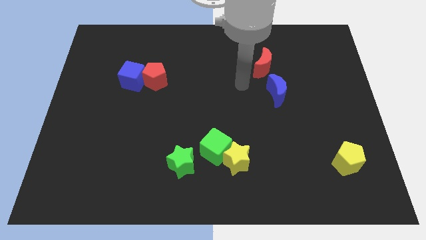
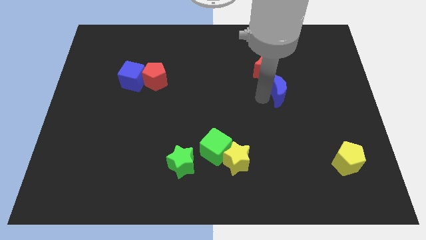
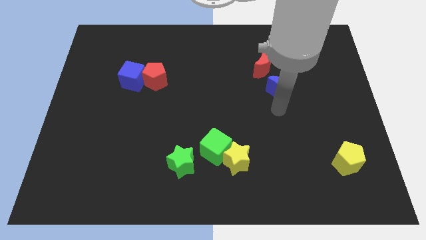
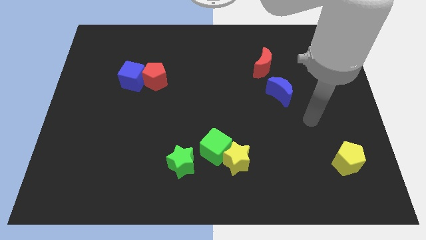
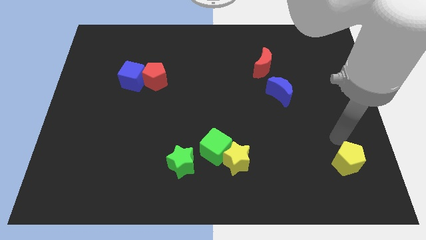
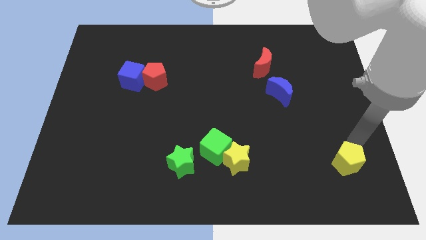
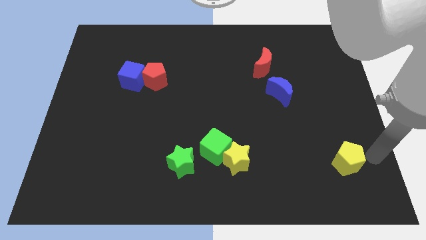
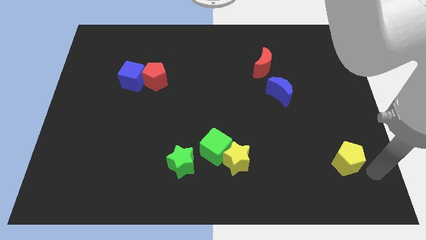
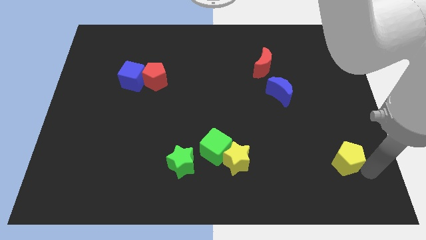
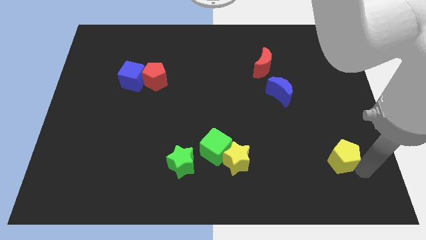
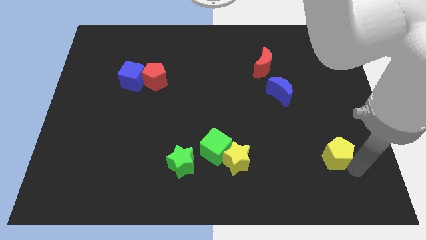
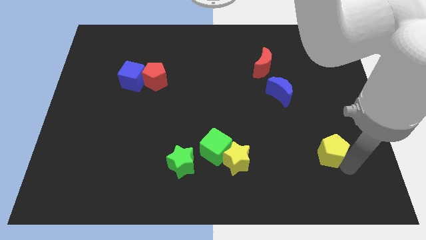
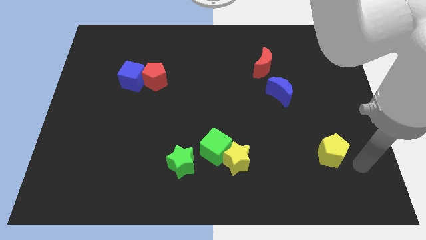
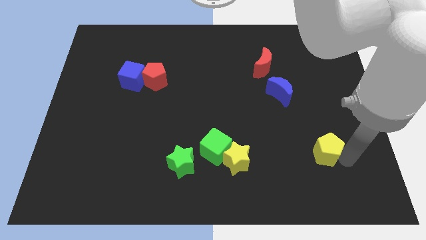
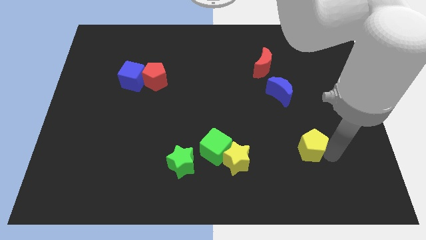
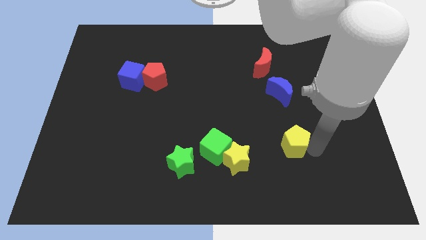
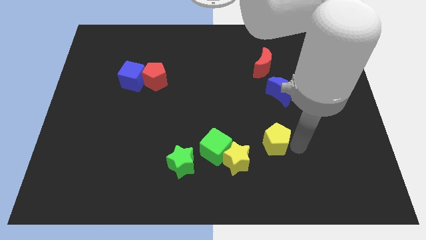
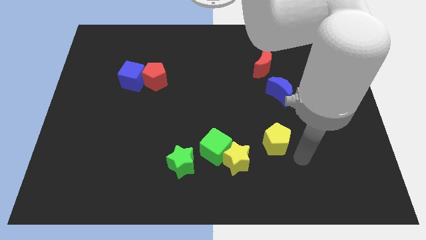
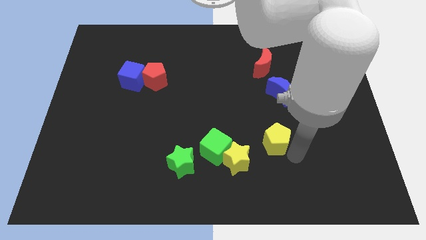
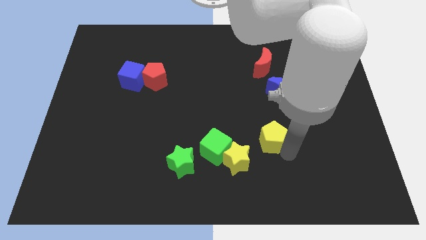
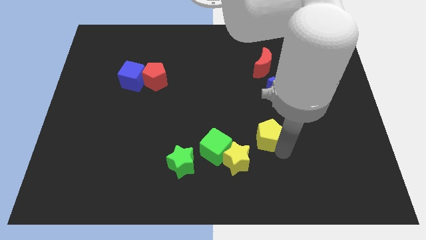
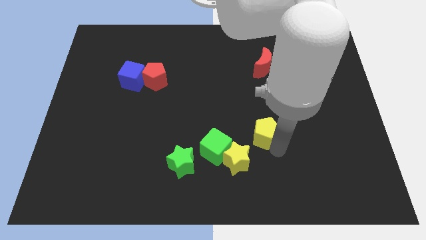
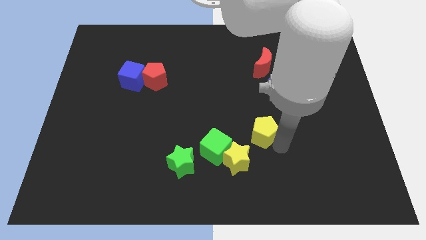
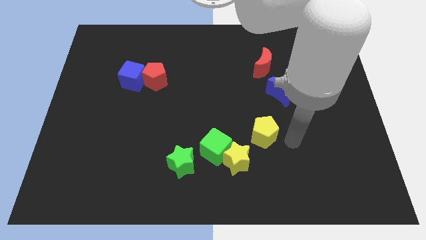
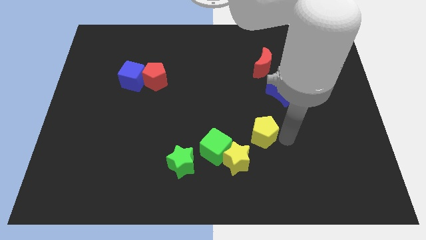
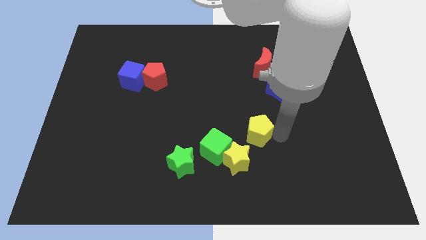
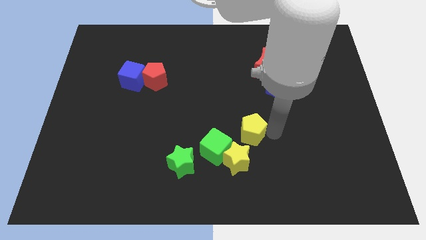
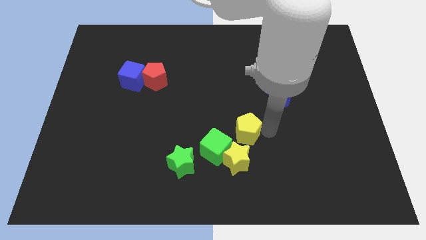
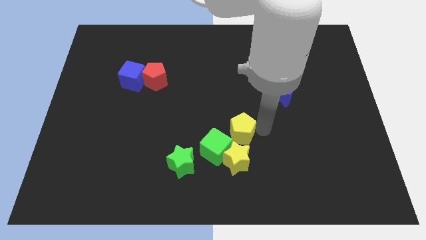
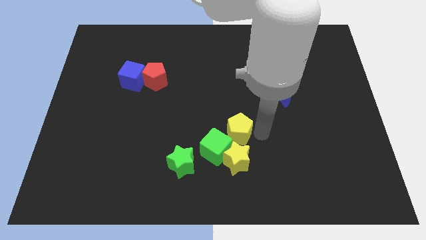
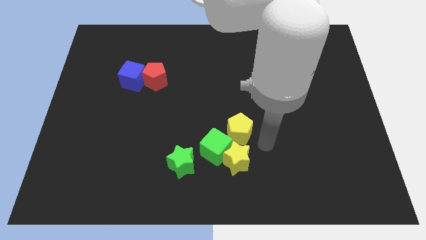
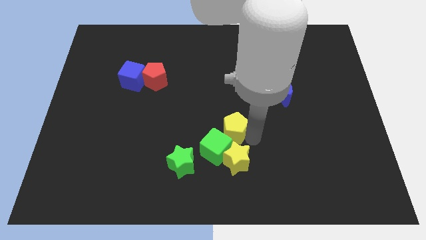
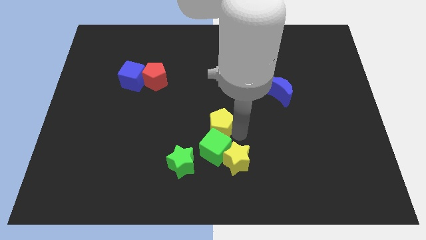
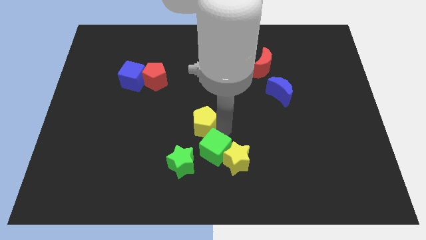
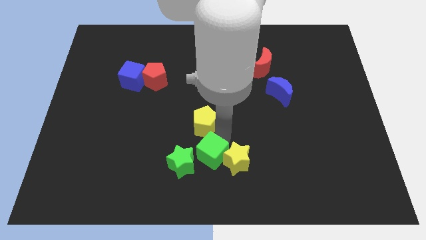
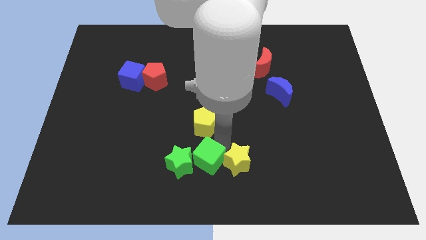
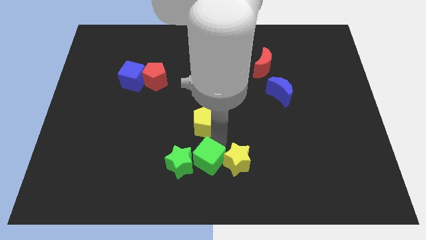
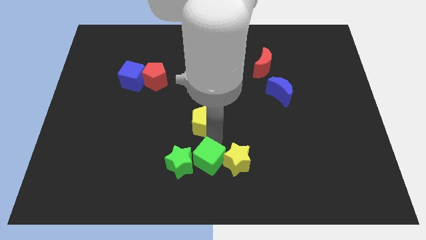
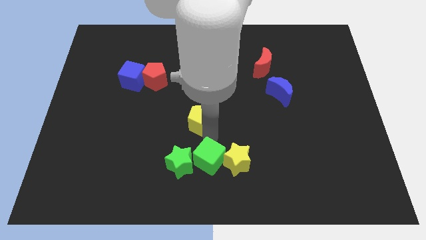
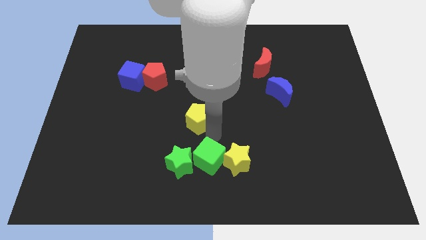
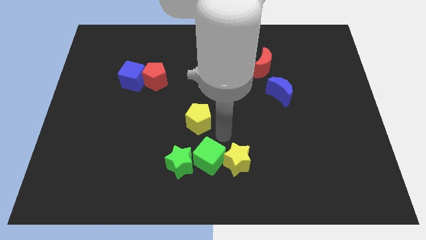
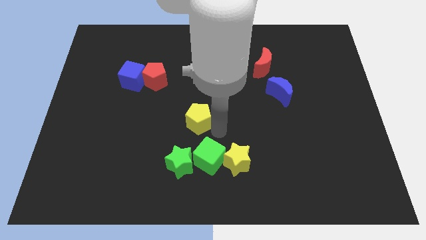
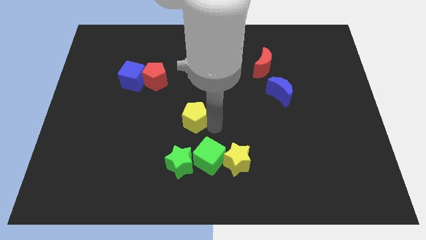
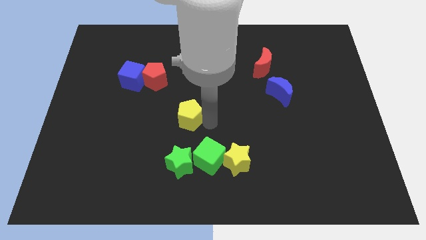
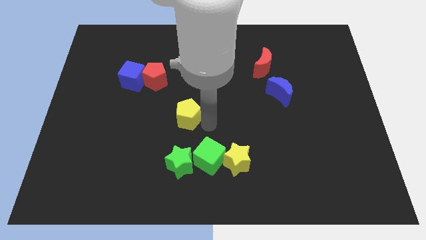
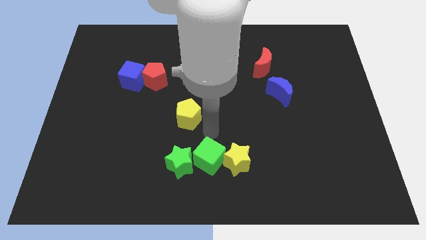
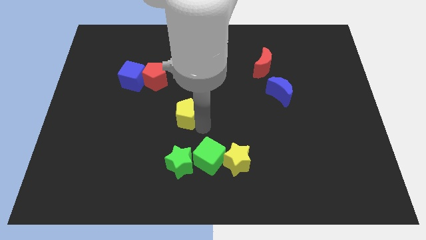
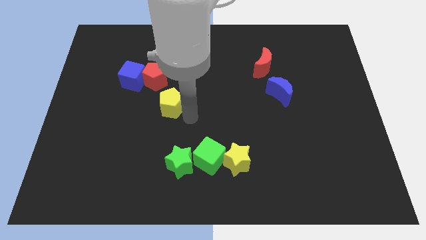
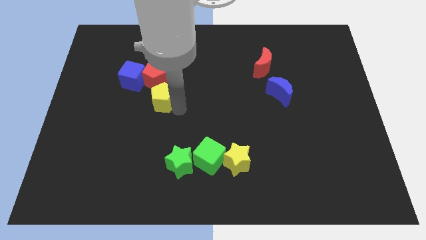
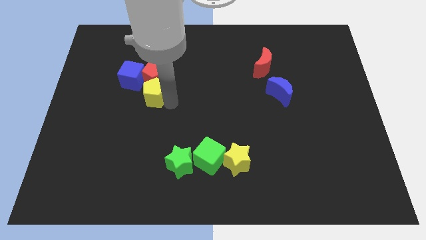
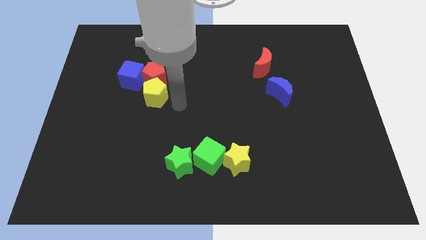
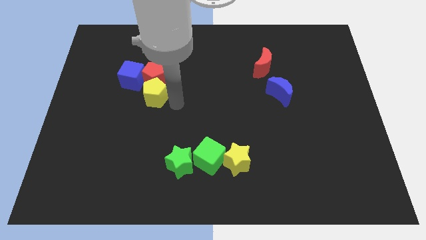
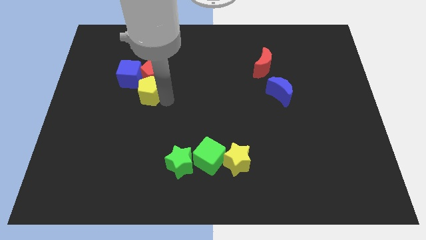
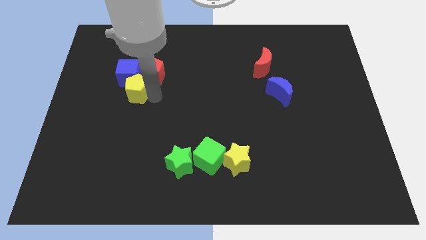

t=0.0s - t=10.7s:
slide the yellow pentagon to the blue cube

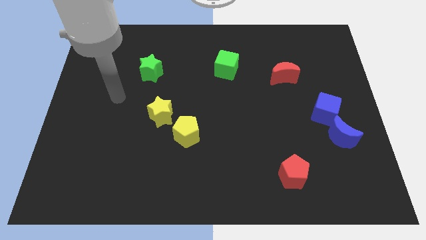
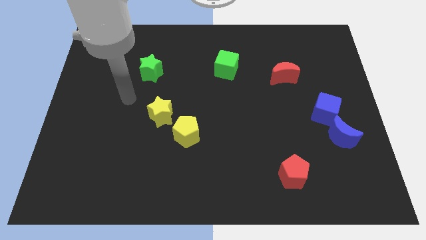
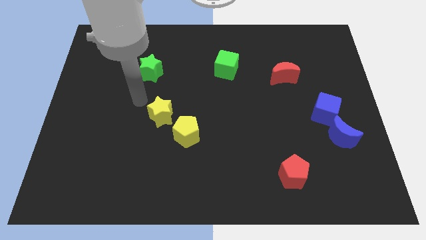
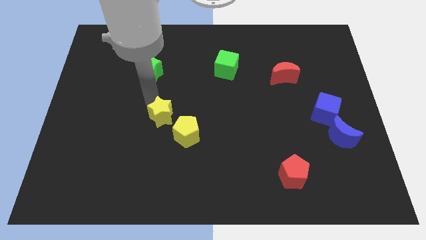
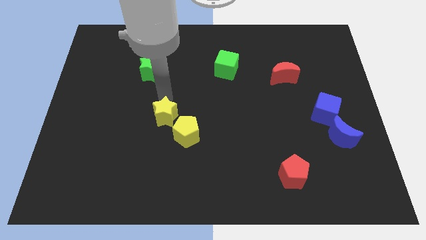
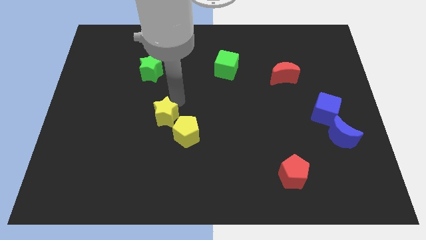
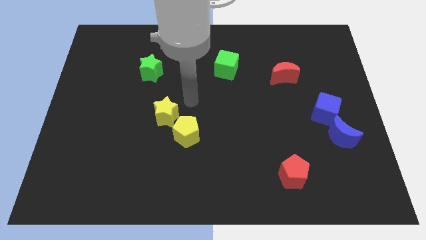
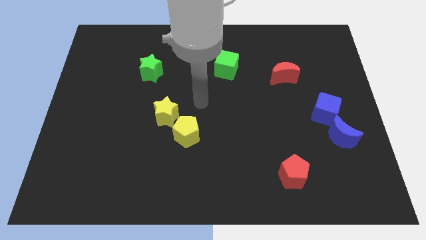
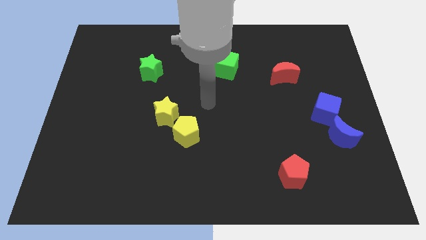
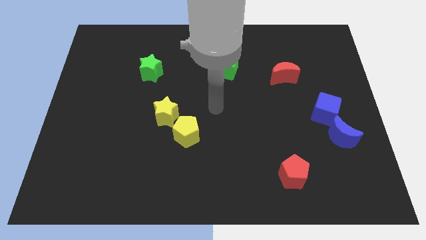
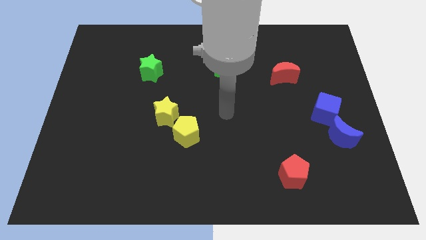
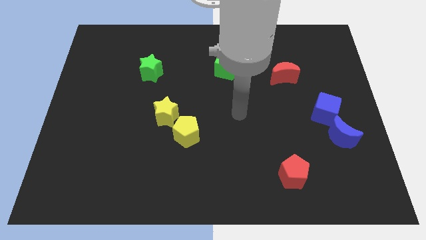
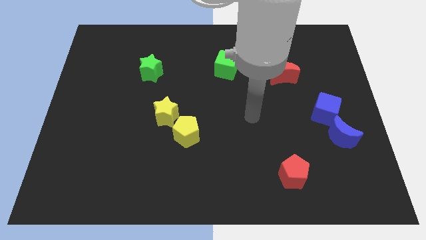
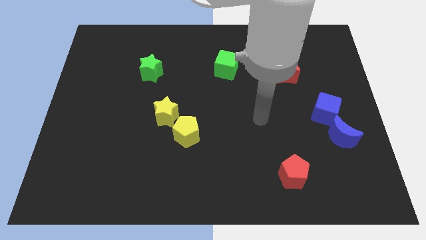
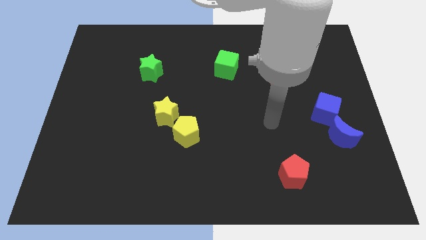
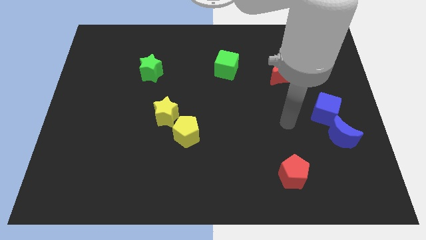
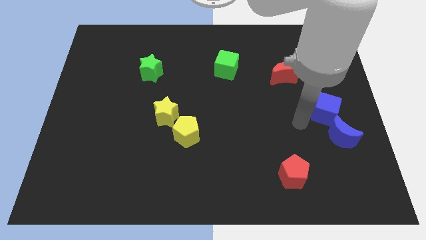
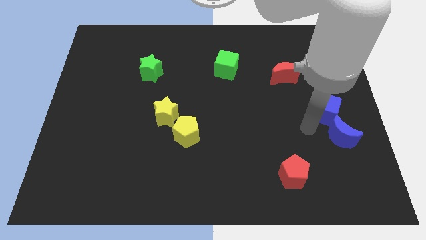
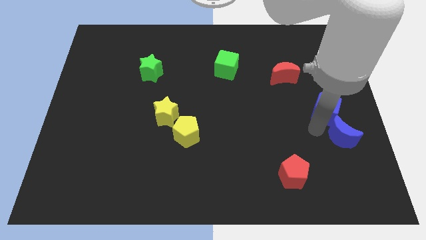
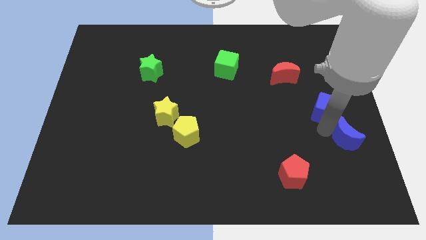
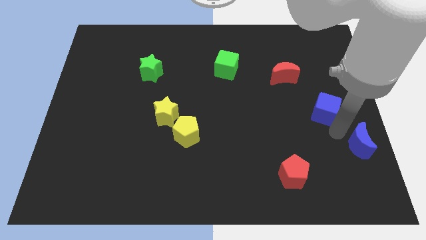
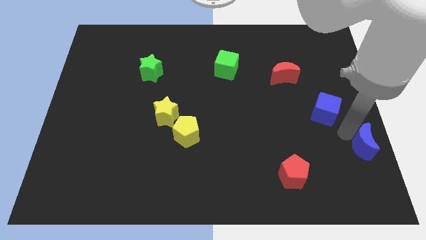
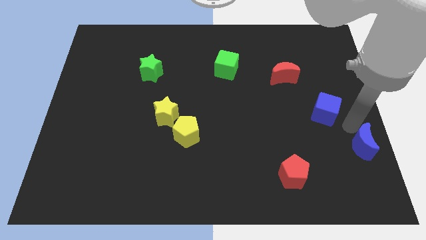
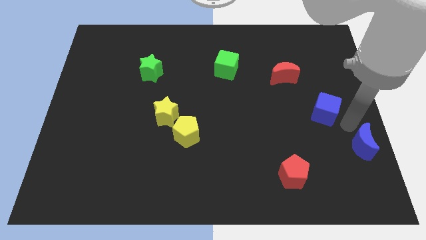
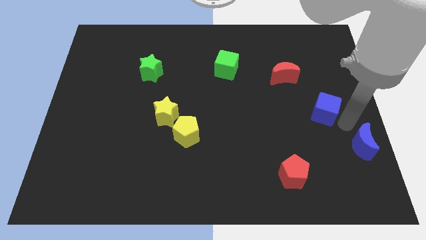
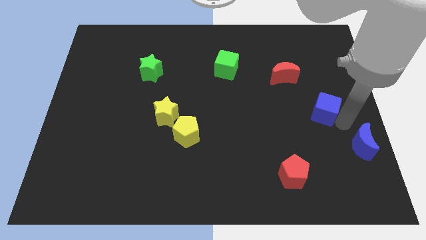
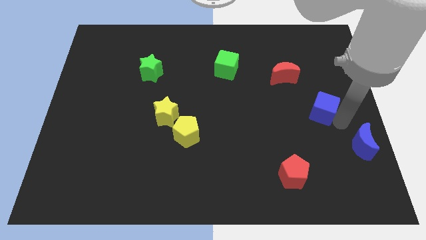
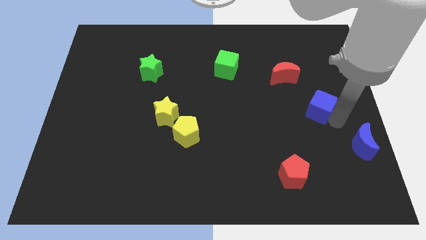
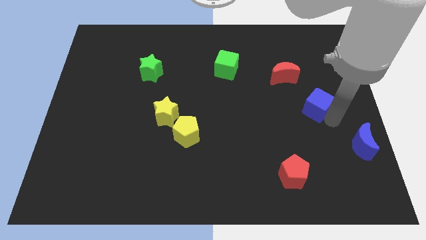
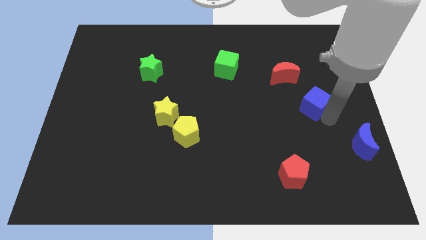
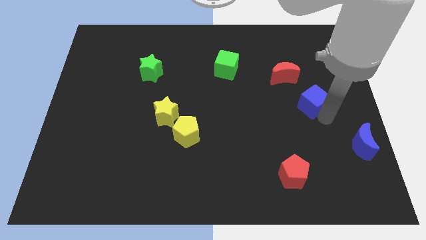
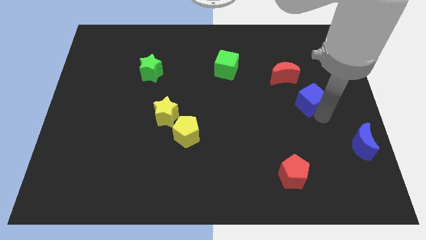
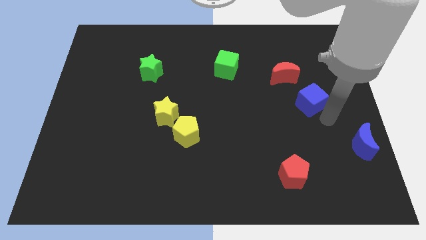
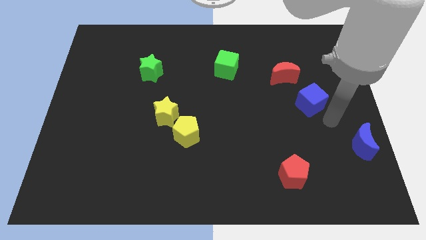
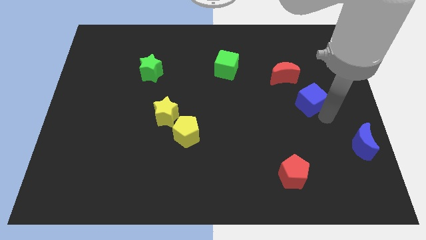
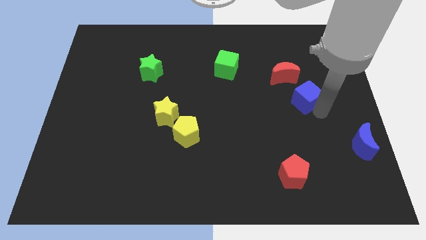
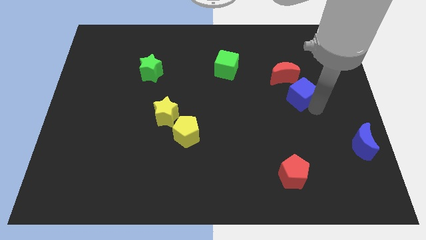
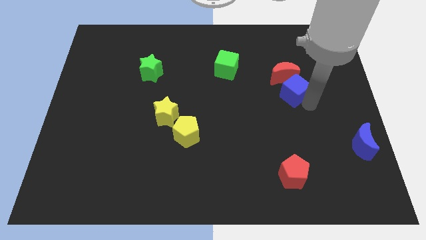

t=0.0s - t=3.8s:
push the blue cube to the red moon
